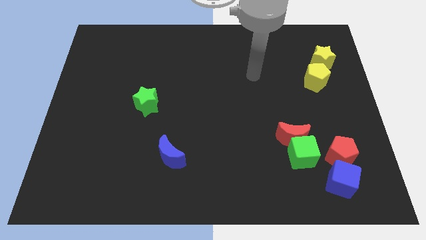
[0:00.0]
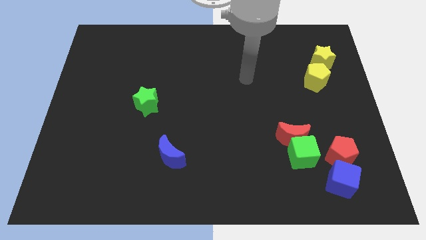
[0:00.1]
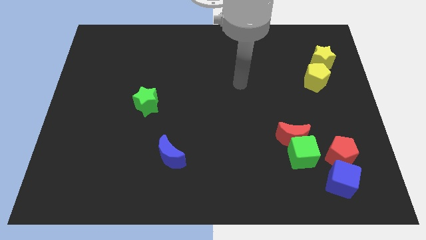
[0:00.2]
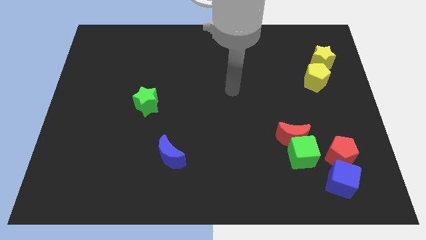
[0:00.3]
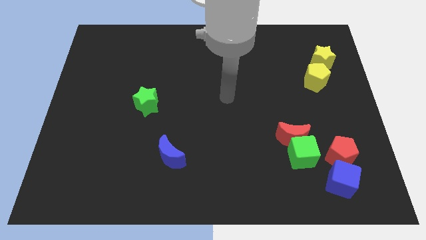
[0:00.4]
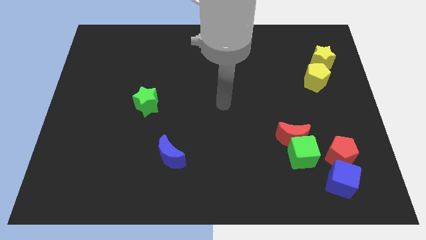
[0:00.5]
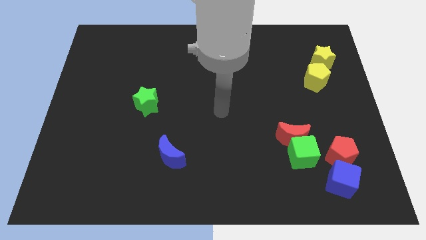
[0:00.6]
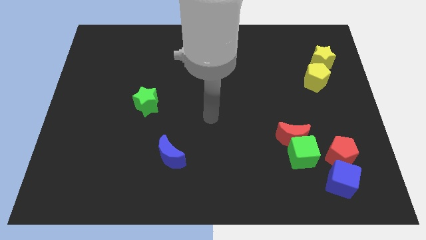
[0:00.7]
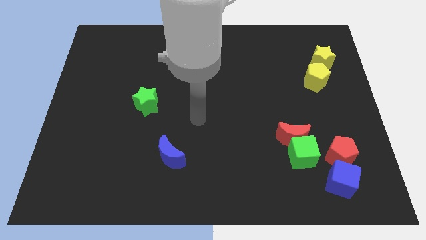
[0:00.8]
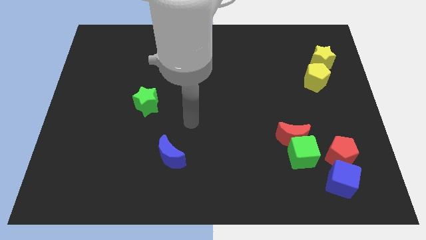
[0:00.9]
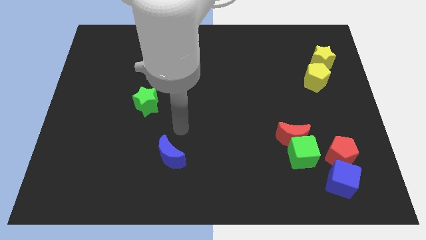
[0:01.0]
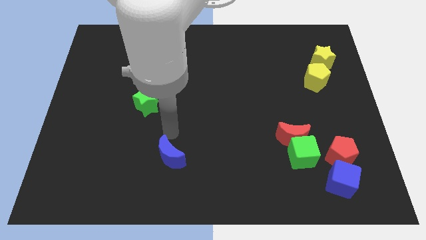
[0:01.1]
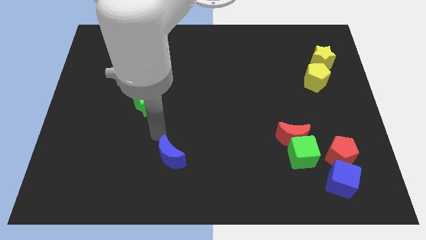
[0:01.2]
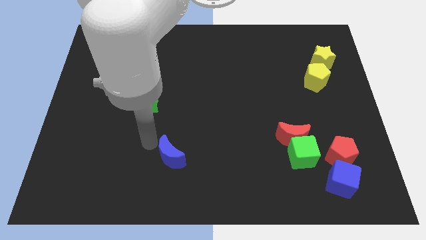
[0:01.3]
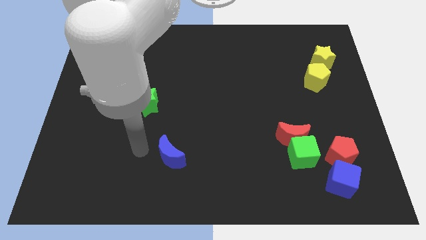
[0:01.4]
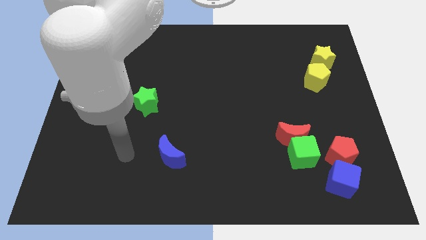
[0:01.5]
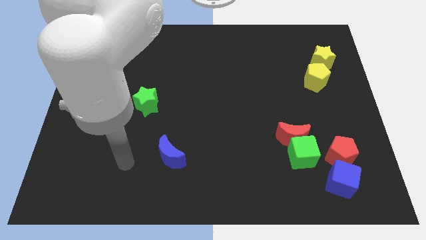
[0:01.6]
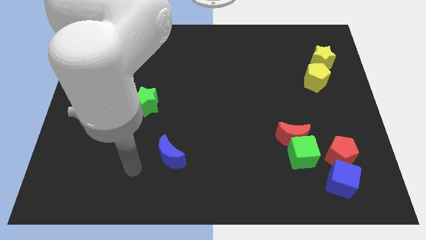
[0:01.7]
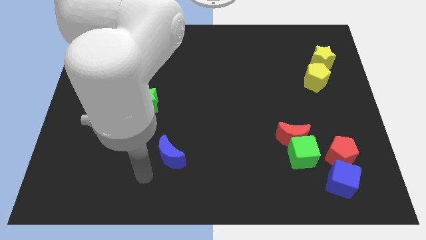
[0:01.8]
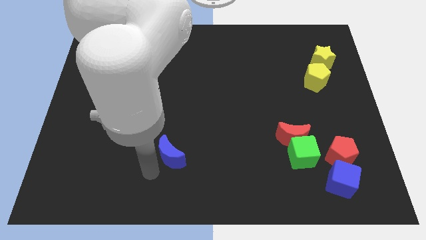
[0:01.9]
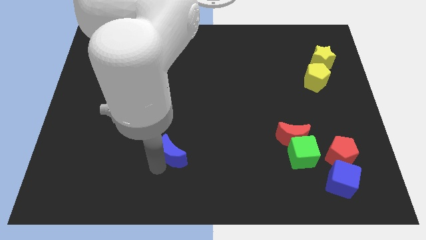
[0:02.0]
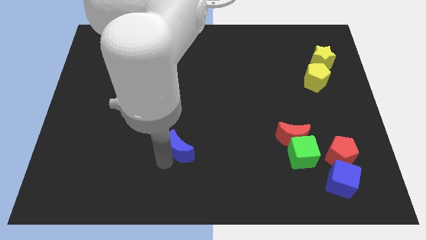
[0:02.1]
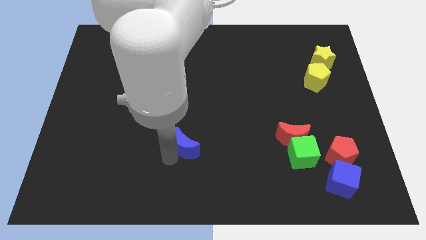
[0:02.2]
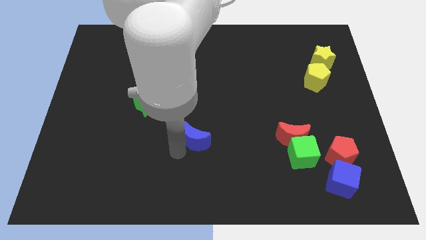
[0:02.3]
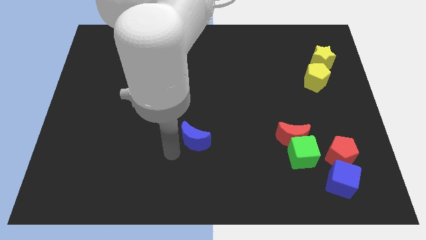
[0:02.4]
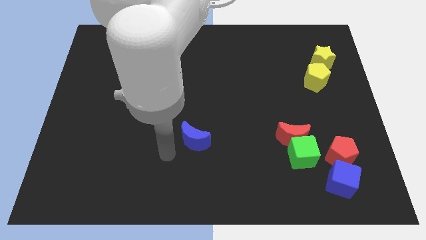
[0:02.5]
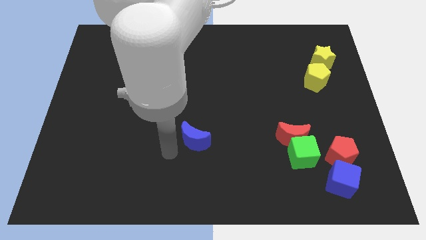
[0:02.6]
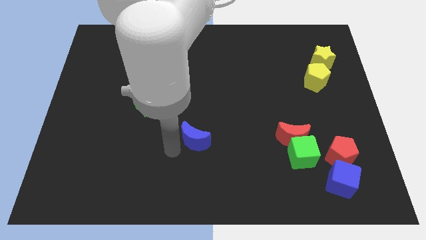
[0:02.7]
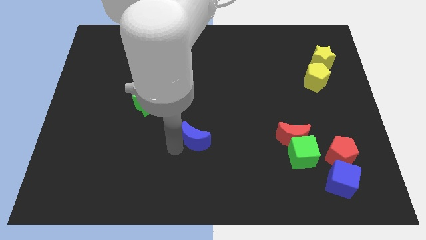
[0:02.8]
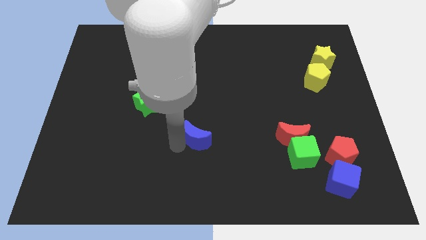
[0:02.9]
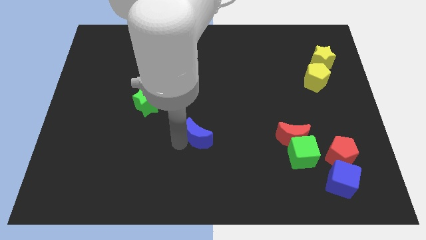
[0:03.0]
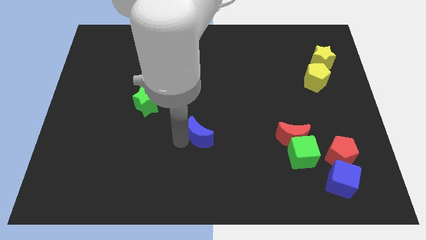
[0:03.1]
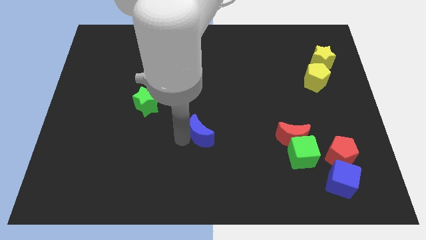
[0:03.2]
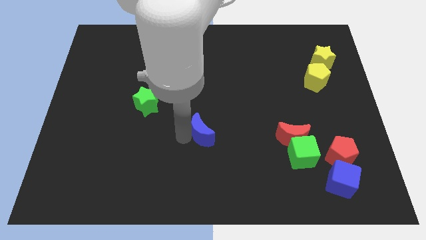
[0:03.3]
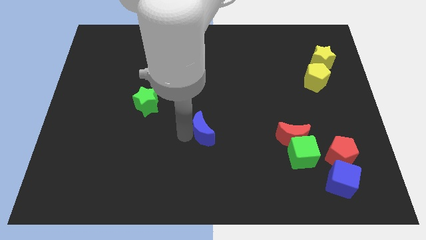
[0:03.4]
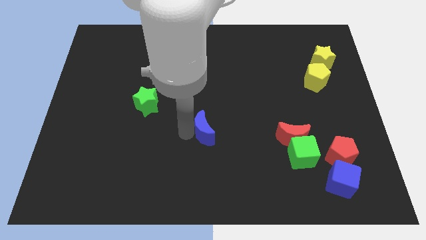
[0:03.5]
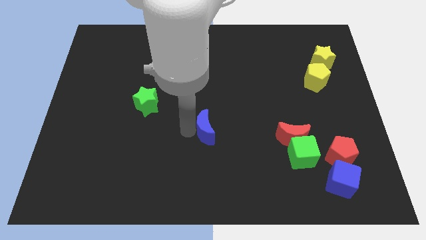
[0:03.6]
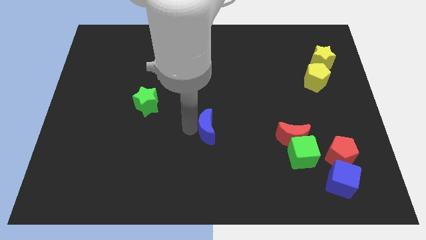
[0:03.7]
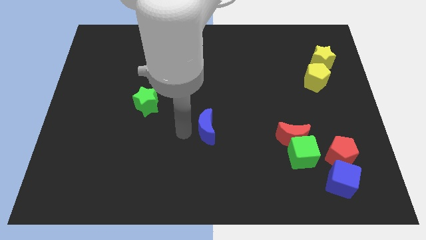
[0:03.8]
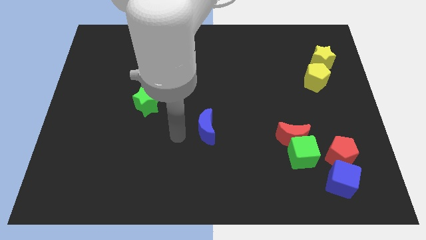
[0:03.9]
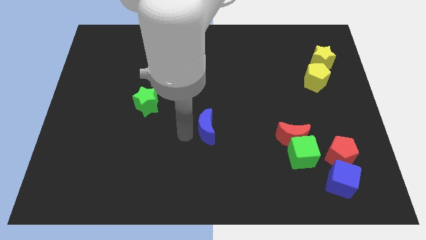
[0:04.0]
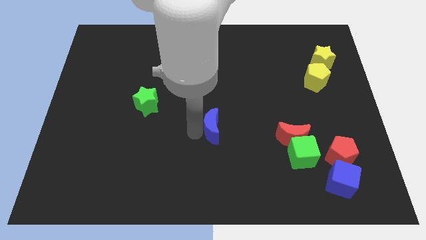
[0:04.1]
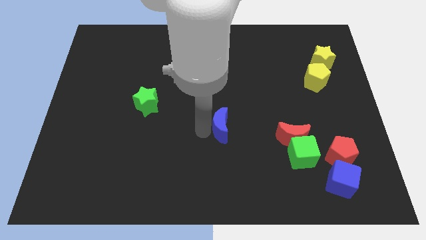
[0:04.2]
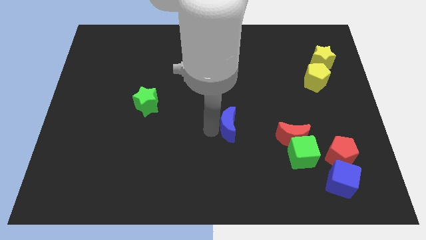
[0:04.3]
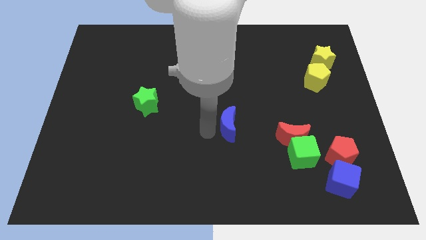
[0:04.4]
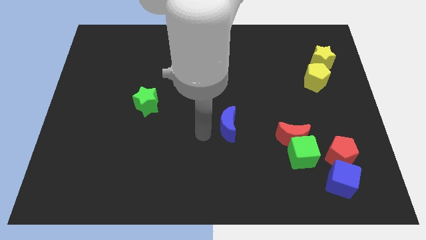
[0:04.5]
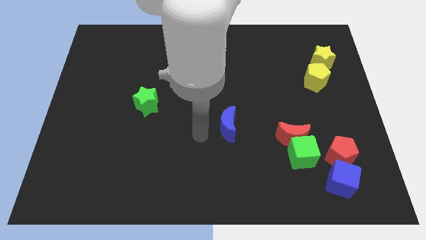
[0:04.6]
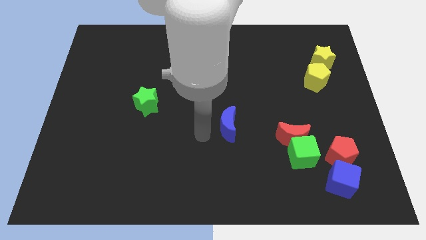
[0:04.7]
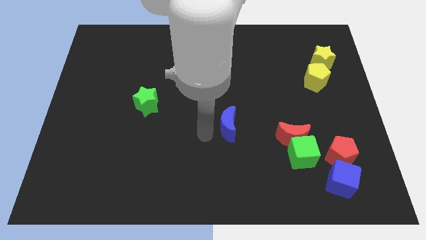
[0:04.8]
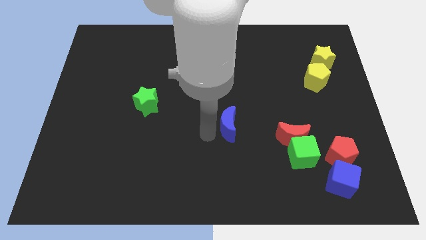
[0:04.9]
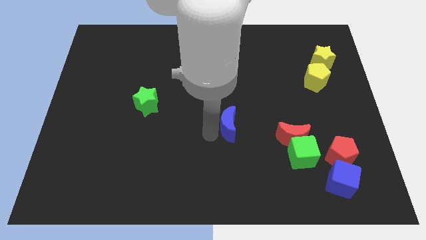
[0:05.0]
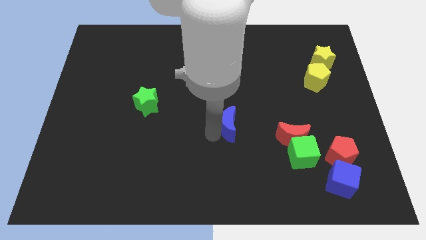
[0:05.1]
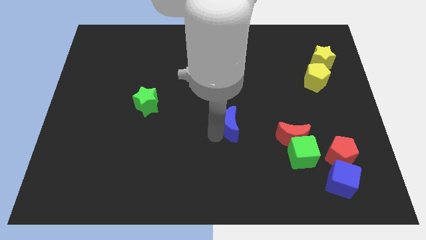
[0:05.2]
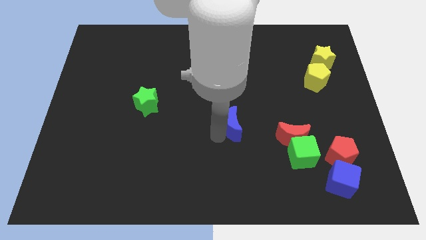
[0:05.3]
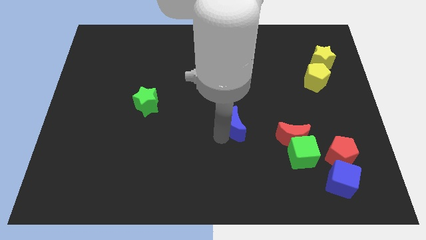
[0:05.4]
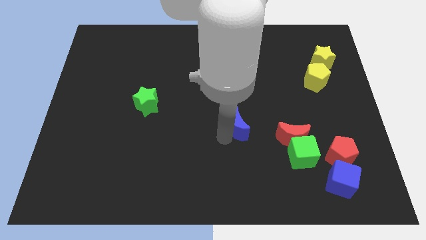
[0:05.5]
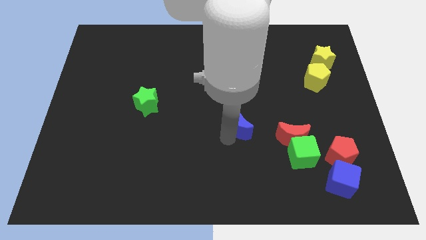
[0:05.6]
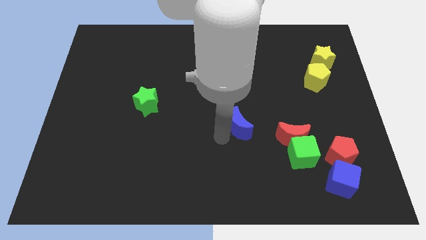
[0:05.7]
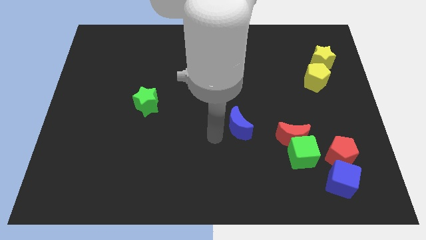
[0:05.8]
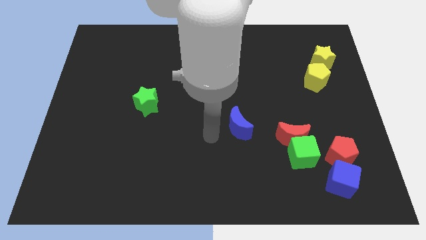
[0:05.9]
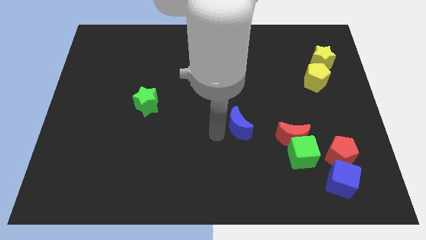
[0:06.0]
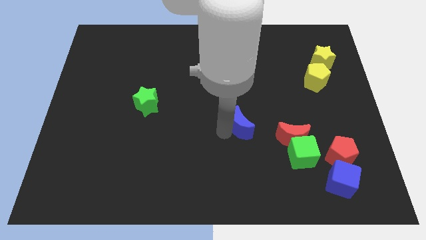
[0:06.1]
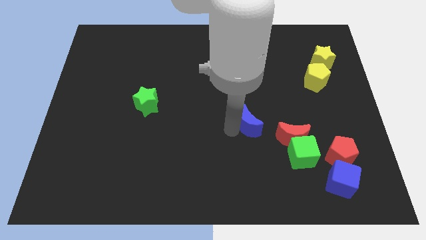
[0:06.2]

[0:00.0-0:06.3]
push the blue moon to the top left of the red moon

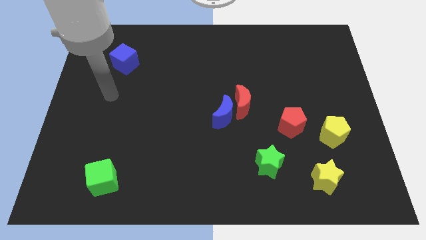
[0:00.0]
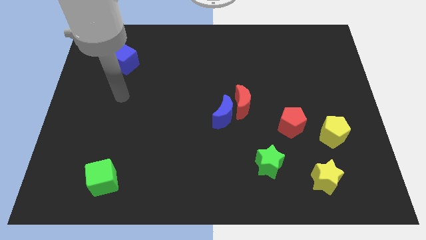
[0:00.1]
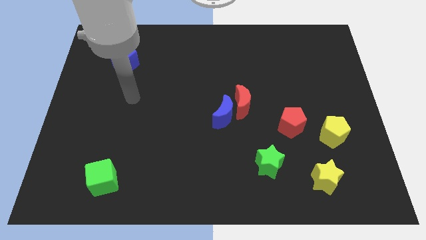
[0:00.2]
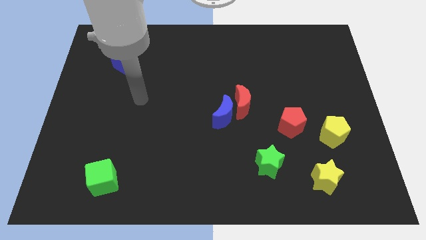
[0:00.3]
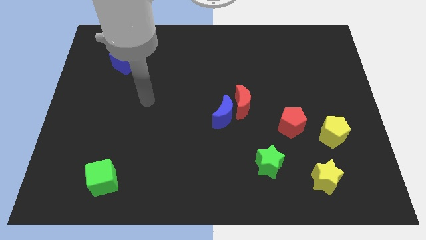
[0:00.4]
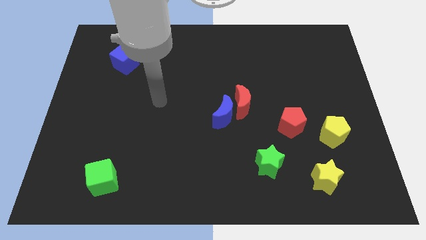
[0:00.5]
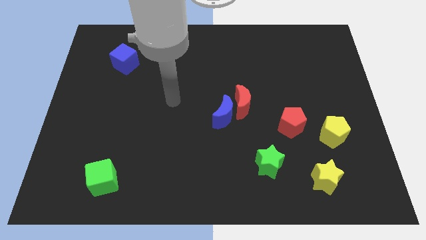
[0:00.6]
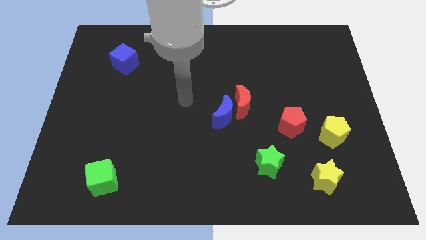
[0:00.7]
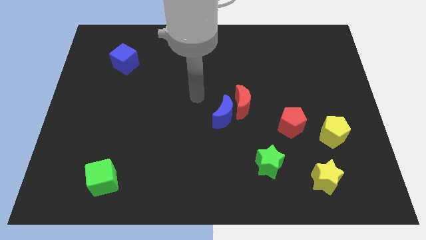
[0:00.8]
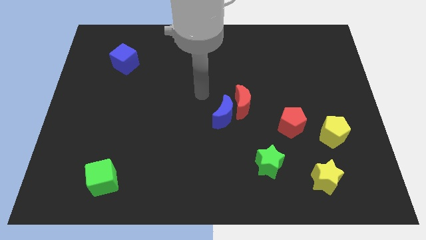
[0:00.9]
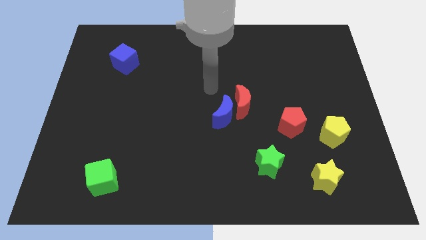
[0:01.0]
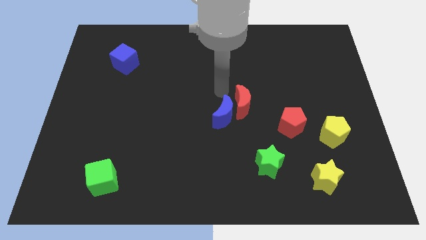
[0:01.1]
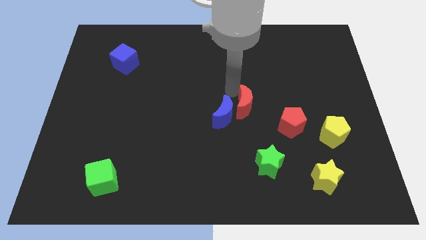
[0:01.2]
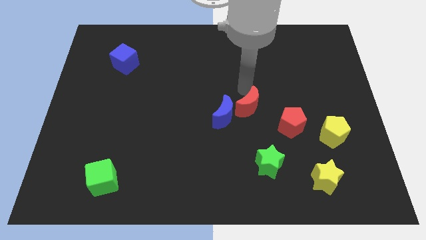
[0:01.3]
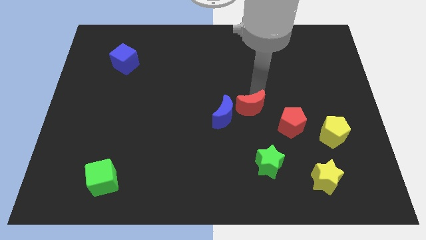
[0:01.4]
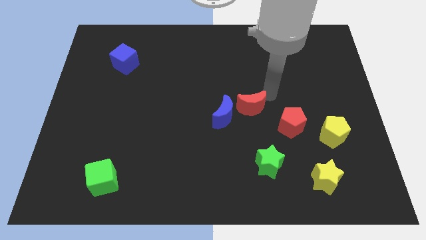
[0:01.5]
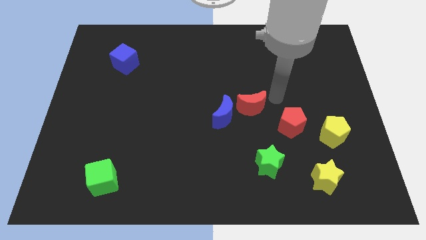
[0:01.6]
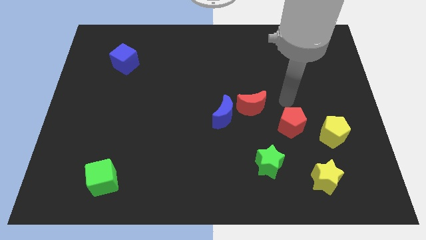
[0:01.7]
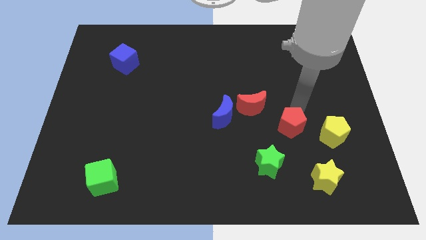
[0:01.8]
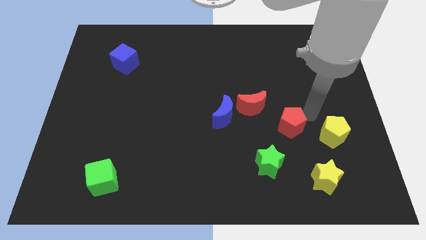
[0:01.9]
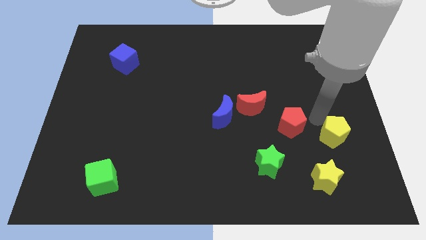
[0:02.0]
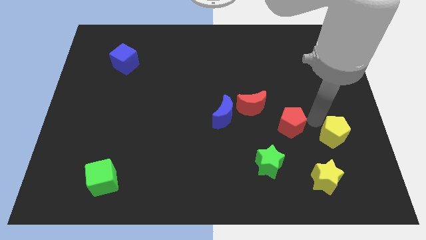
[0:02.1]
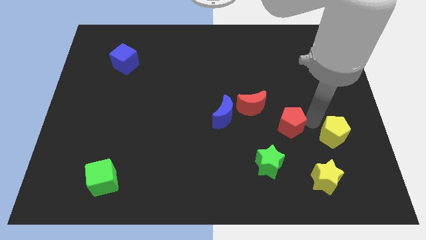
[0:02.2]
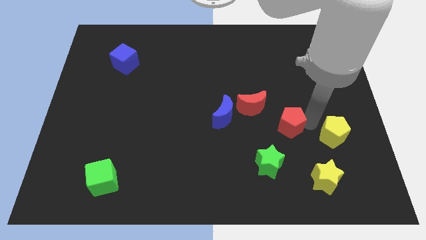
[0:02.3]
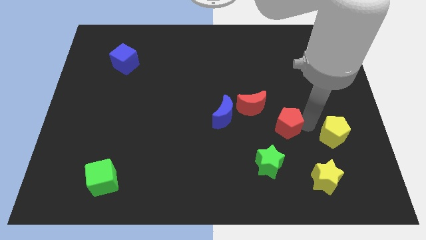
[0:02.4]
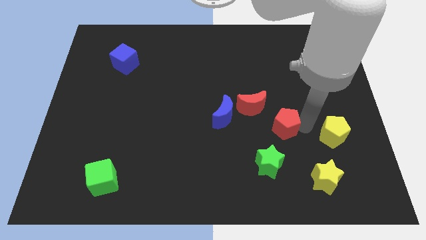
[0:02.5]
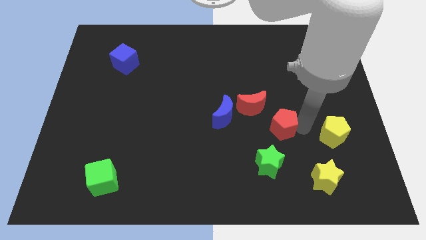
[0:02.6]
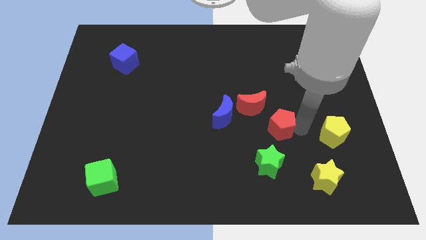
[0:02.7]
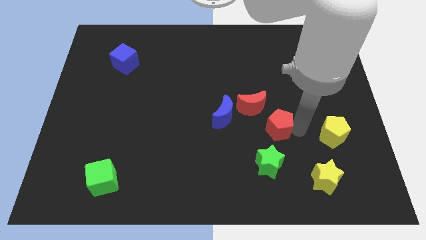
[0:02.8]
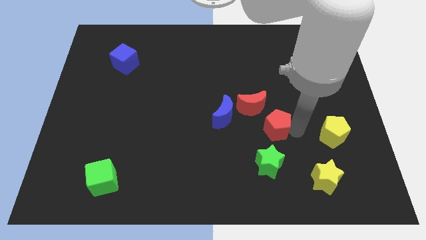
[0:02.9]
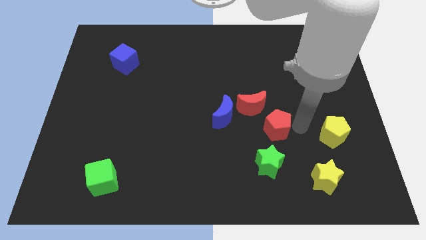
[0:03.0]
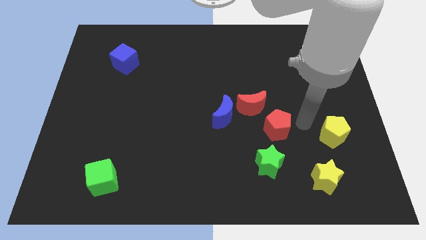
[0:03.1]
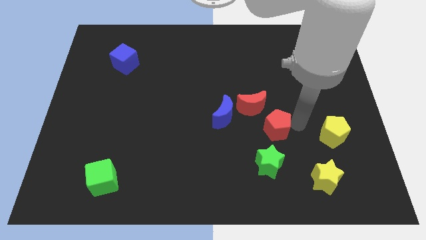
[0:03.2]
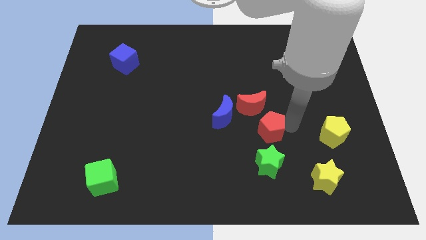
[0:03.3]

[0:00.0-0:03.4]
move the red pentagon to the bottom right side of the blue moon
